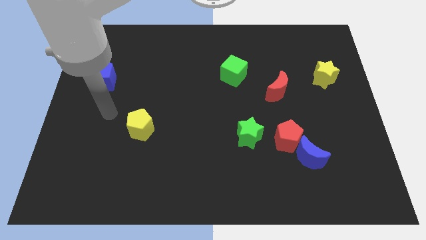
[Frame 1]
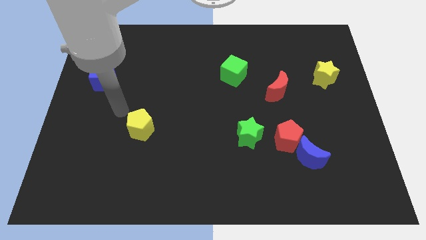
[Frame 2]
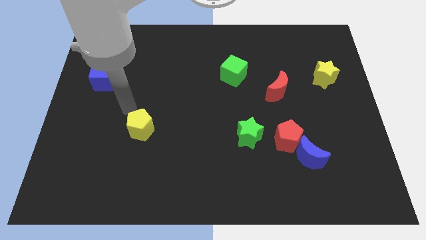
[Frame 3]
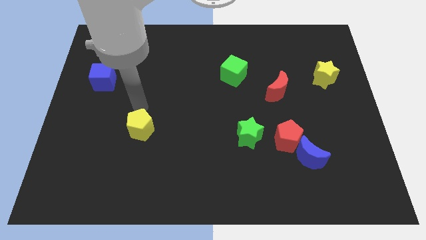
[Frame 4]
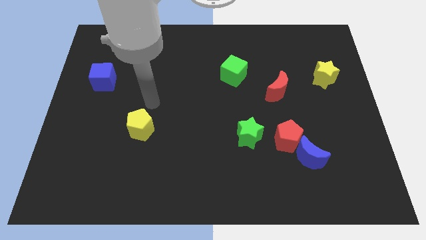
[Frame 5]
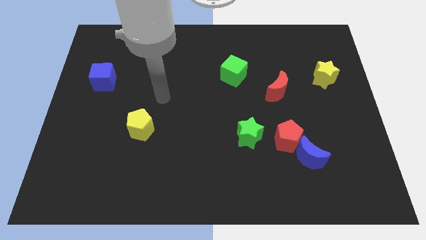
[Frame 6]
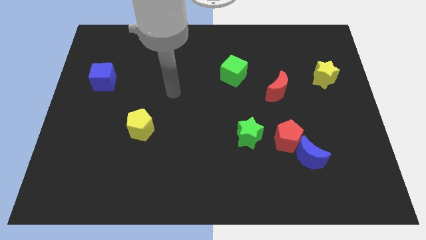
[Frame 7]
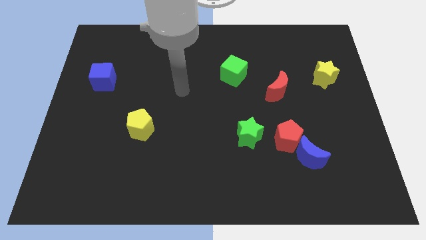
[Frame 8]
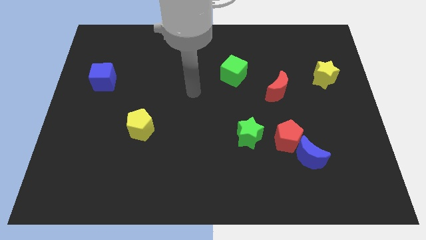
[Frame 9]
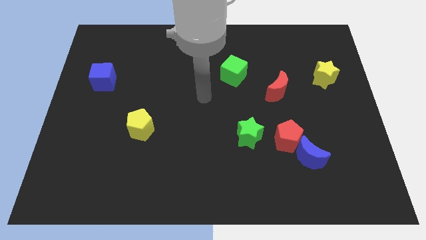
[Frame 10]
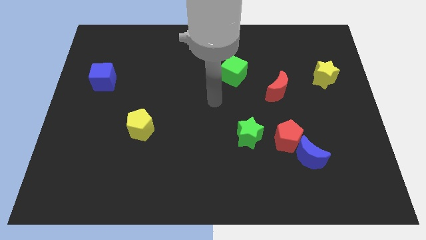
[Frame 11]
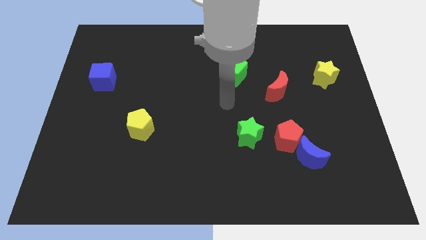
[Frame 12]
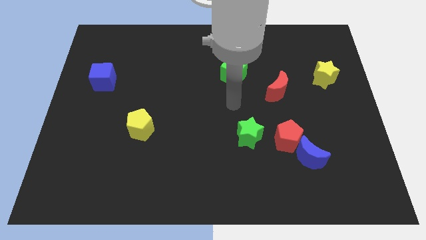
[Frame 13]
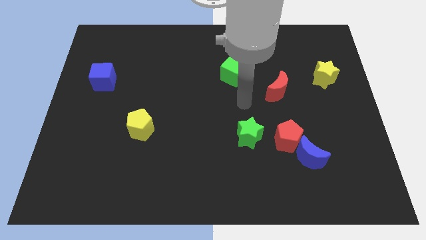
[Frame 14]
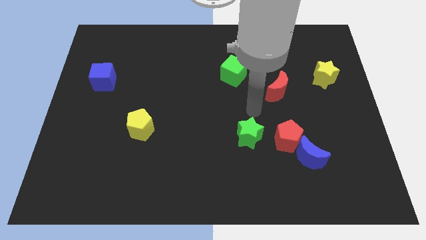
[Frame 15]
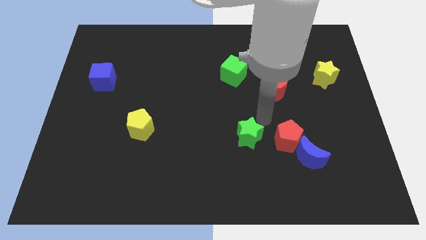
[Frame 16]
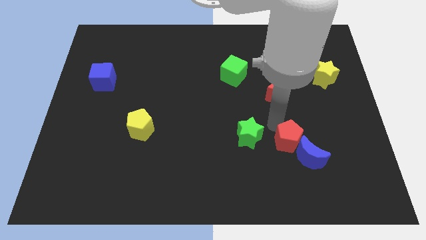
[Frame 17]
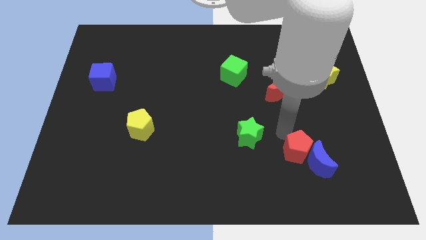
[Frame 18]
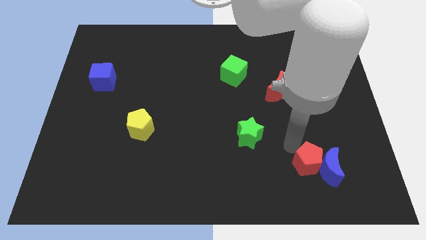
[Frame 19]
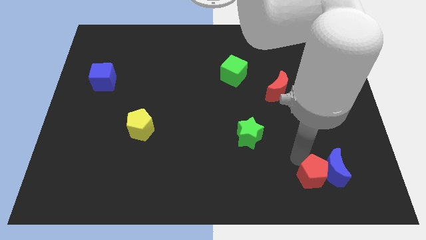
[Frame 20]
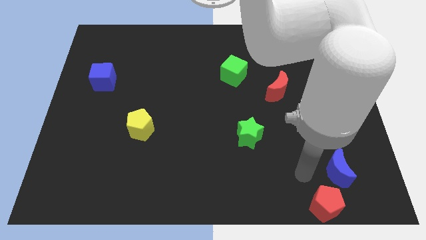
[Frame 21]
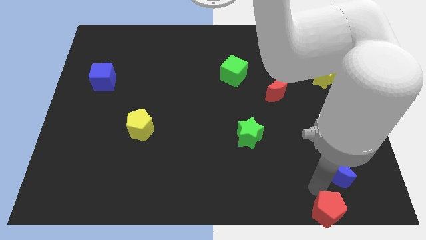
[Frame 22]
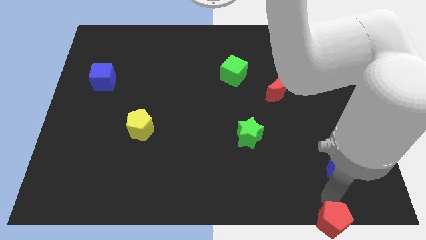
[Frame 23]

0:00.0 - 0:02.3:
pull the blue moon apart from the red pentagon

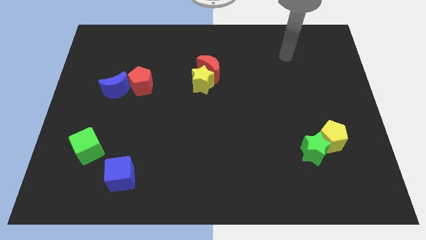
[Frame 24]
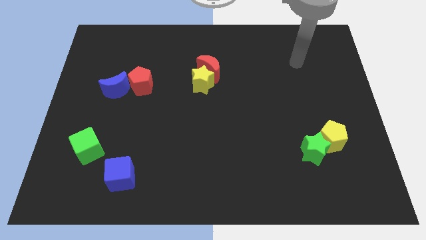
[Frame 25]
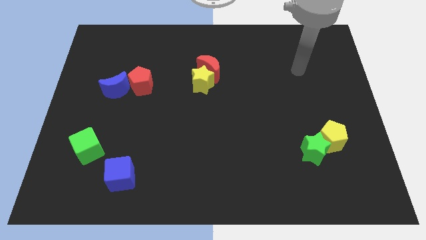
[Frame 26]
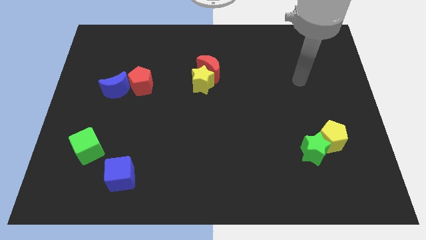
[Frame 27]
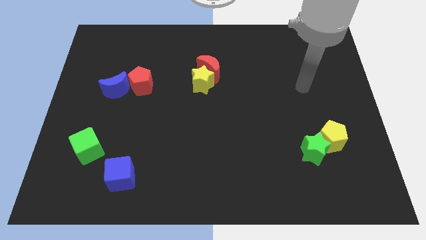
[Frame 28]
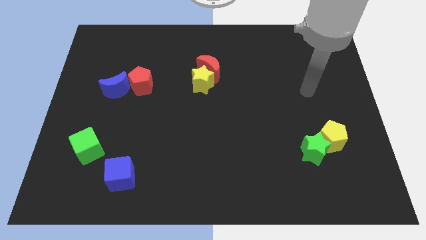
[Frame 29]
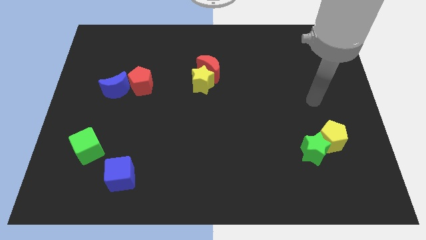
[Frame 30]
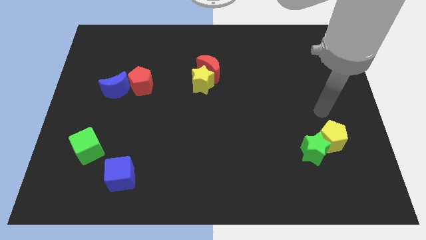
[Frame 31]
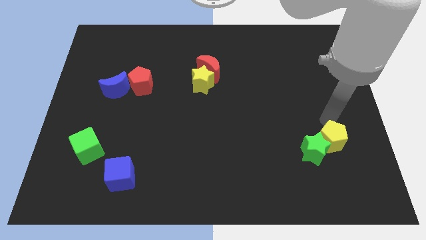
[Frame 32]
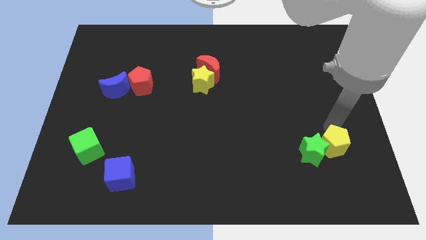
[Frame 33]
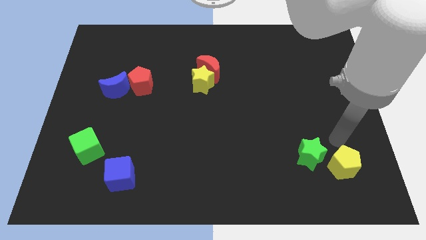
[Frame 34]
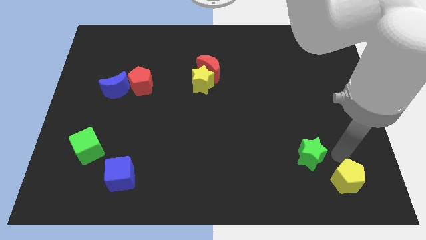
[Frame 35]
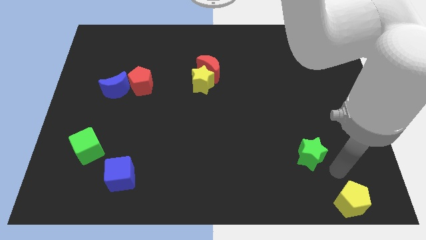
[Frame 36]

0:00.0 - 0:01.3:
move the green star away from the yellow pentagon

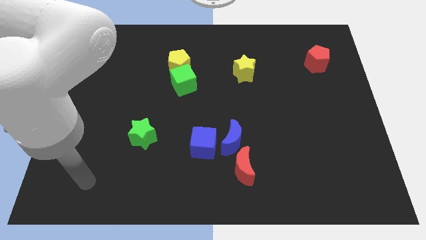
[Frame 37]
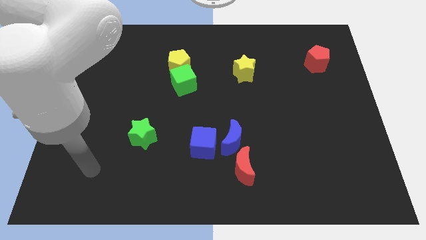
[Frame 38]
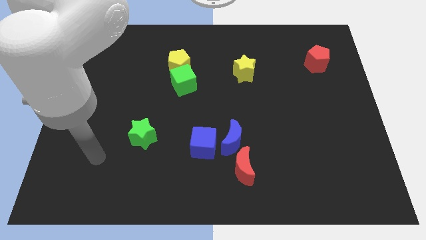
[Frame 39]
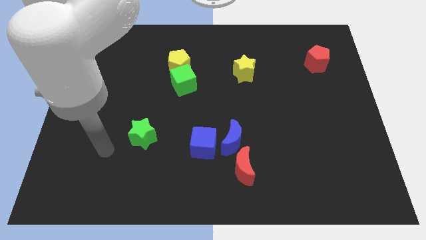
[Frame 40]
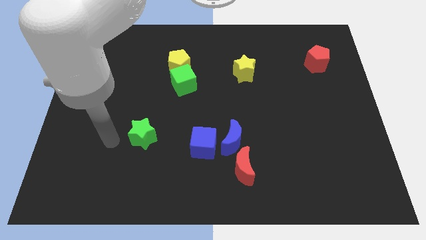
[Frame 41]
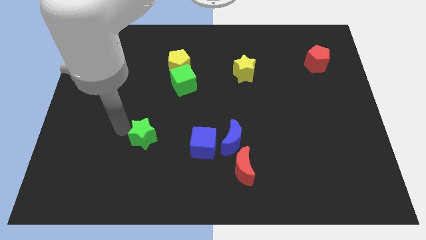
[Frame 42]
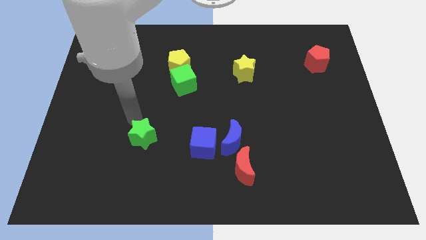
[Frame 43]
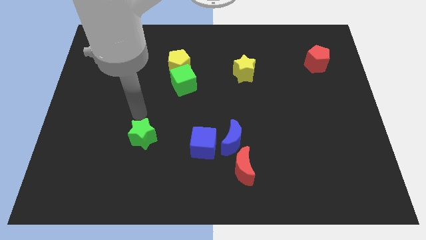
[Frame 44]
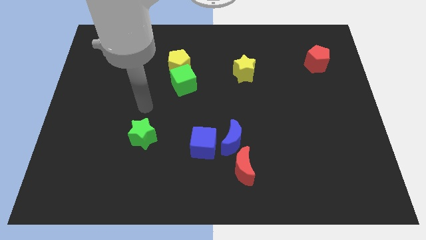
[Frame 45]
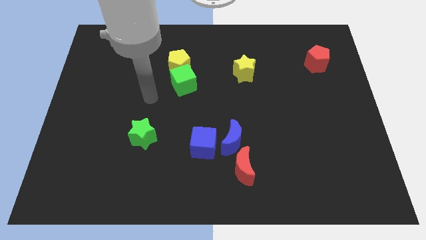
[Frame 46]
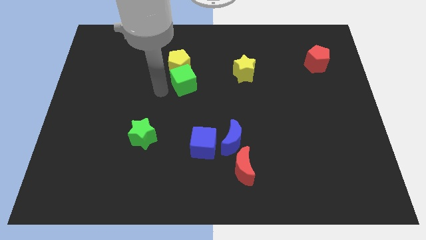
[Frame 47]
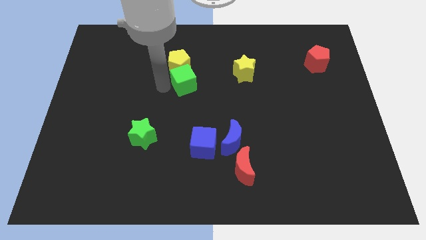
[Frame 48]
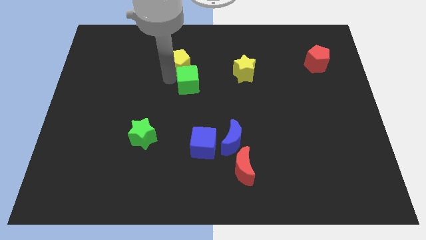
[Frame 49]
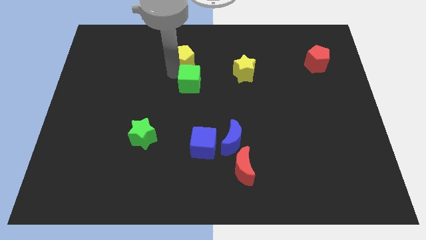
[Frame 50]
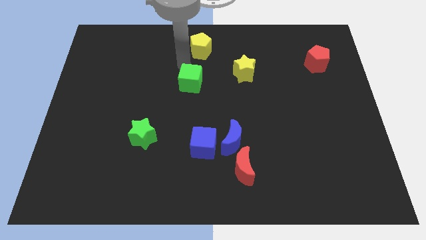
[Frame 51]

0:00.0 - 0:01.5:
separate the green cube from the yellow pentagon

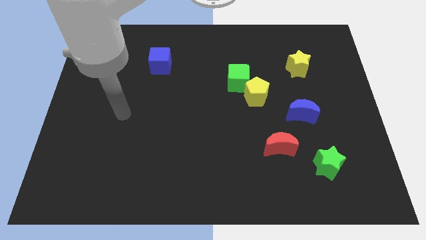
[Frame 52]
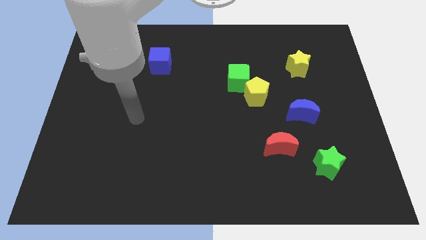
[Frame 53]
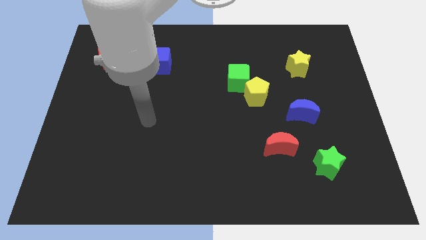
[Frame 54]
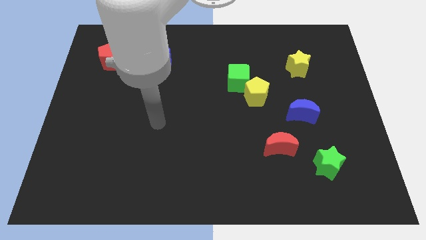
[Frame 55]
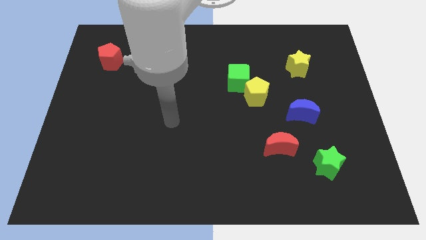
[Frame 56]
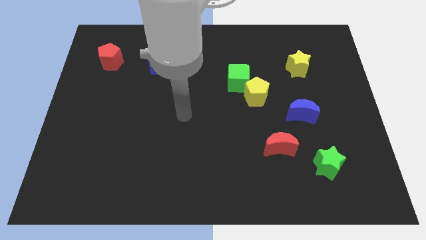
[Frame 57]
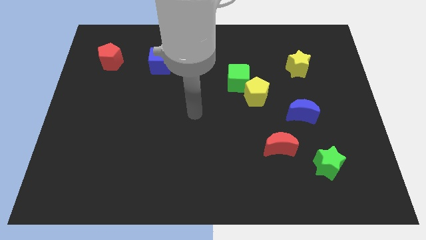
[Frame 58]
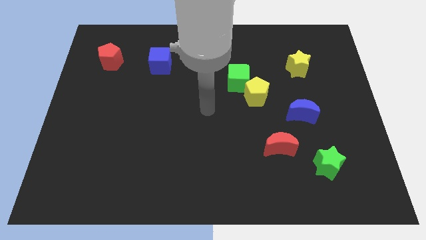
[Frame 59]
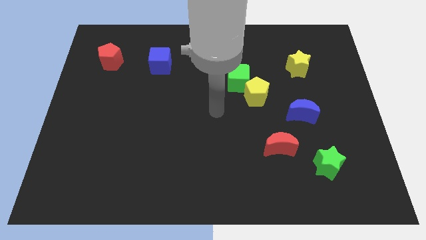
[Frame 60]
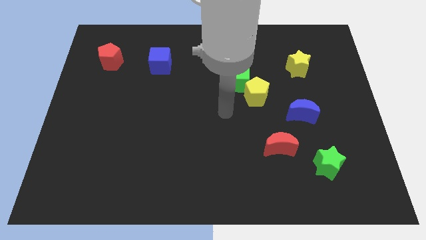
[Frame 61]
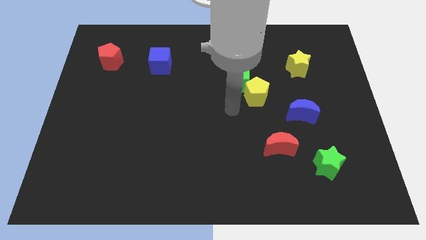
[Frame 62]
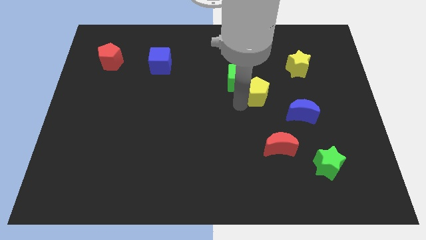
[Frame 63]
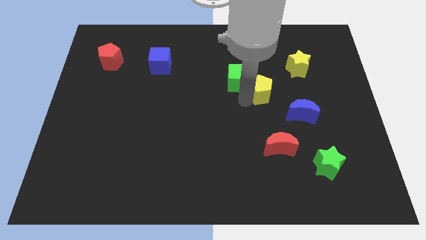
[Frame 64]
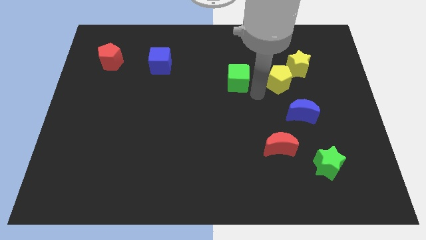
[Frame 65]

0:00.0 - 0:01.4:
move the green cube away from the yellow pentagon

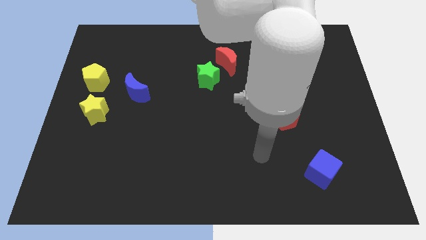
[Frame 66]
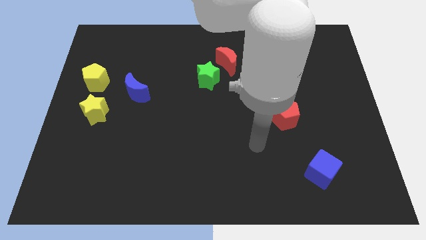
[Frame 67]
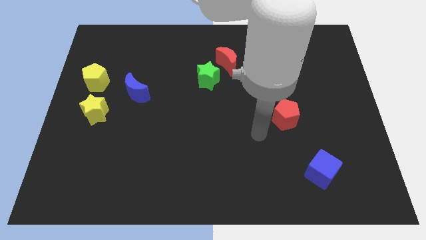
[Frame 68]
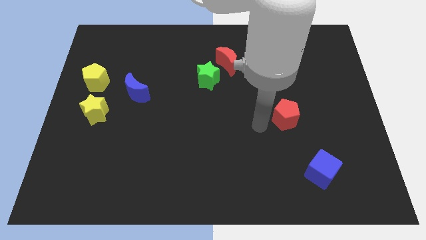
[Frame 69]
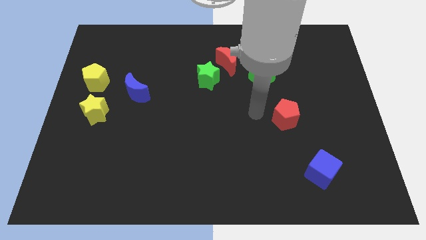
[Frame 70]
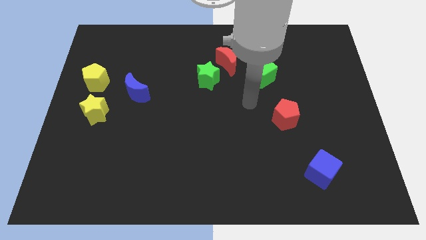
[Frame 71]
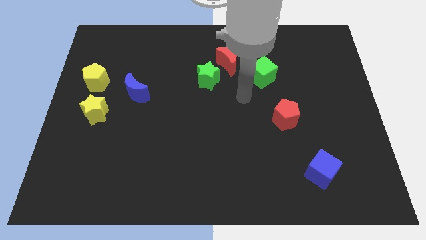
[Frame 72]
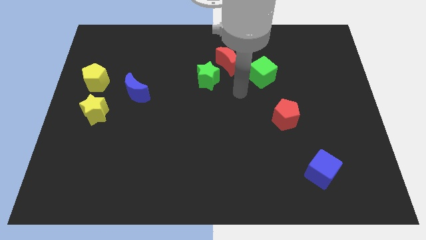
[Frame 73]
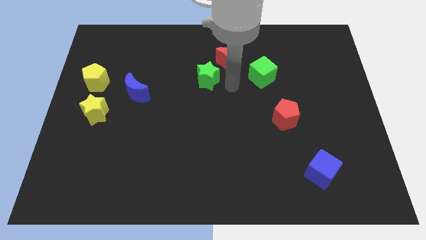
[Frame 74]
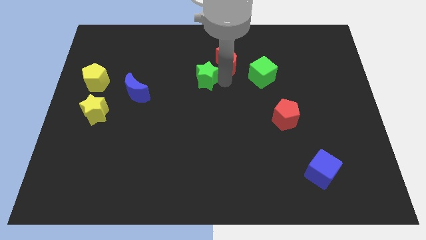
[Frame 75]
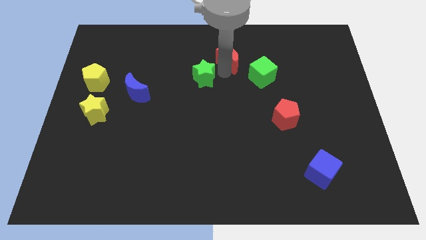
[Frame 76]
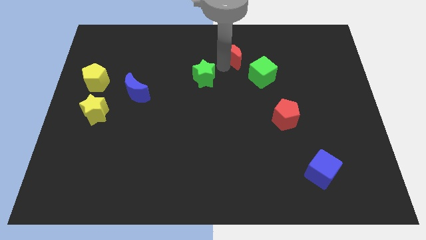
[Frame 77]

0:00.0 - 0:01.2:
separate the green star from the red moon

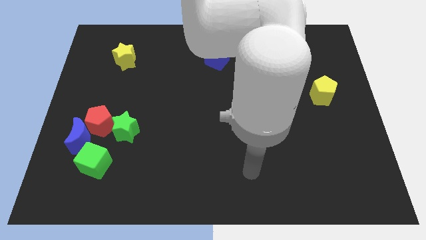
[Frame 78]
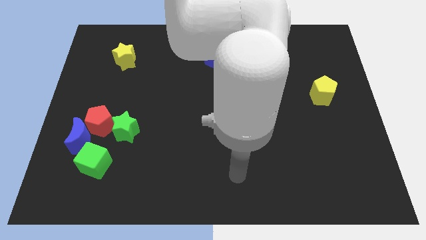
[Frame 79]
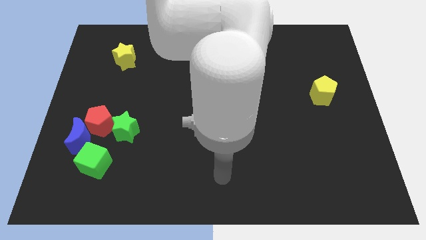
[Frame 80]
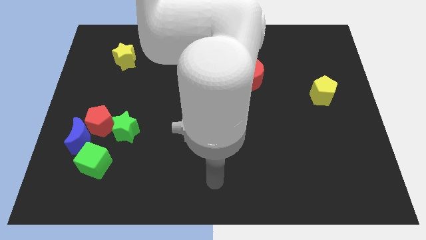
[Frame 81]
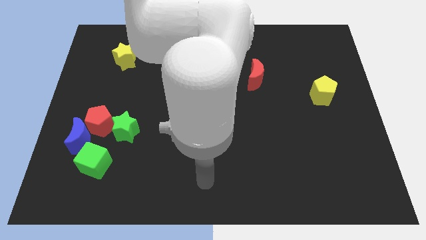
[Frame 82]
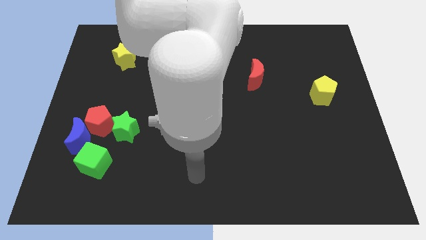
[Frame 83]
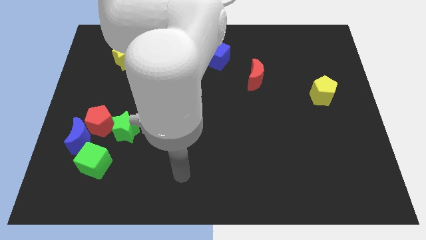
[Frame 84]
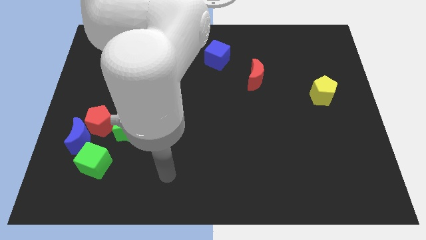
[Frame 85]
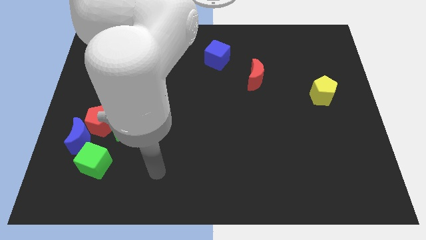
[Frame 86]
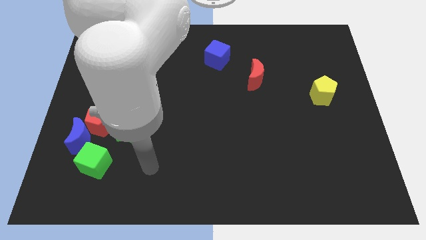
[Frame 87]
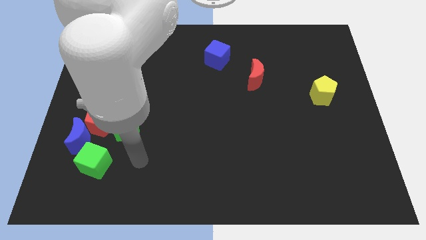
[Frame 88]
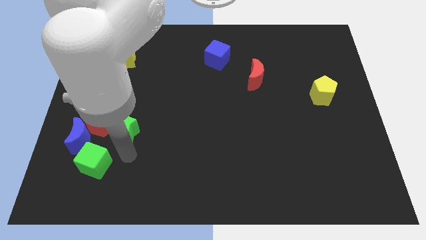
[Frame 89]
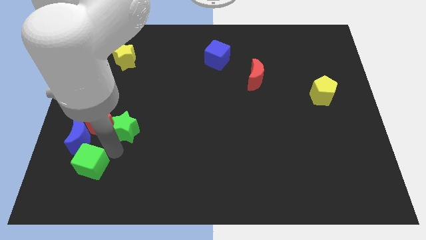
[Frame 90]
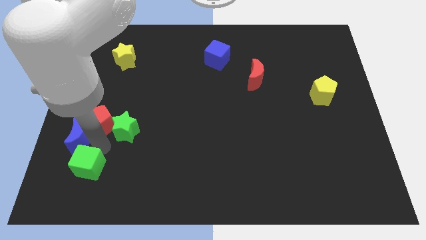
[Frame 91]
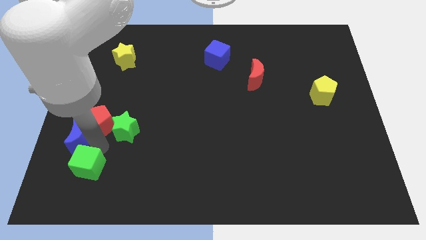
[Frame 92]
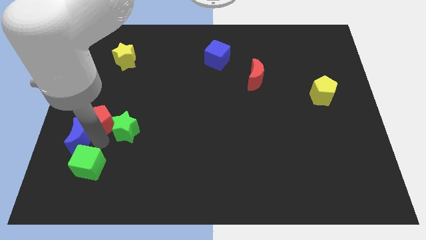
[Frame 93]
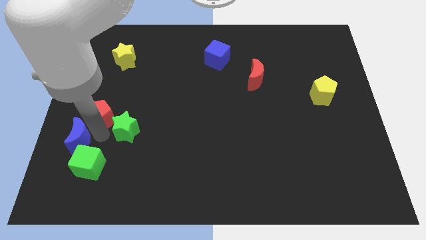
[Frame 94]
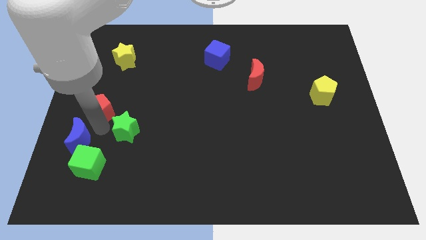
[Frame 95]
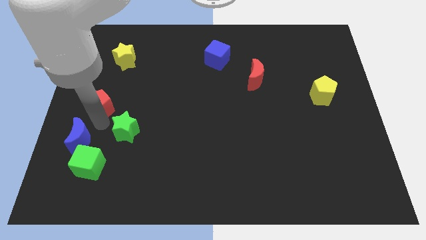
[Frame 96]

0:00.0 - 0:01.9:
separate the red pentagon from the group
